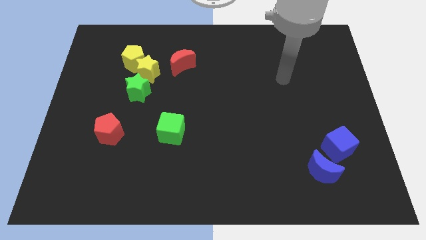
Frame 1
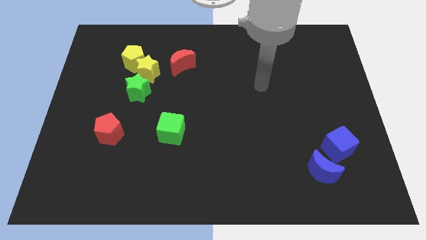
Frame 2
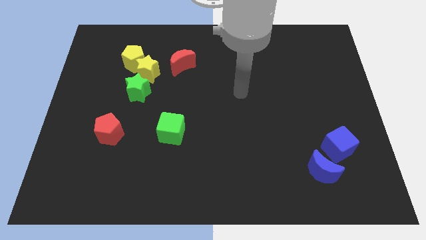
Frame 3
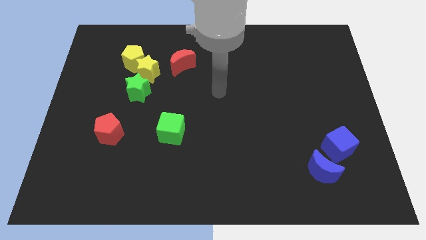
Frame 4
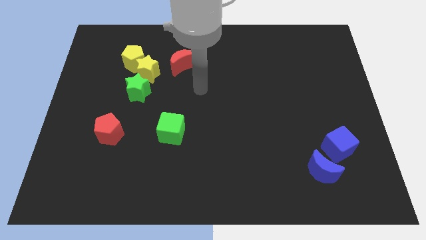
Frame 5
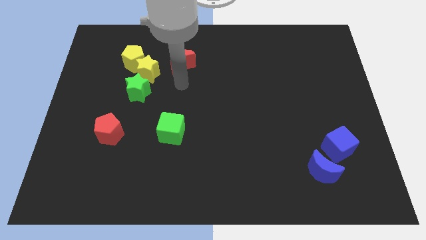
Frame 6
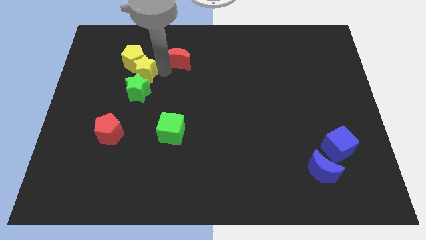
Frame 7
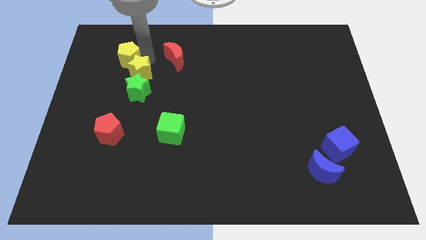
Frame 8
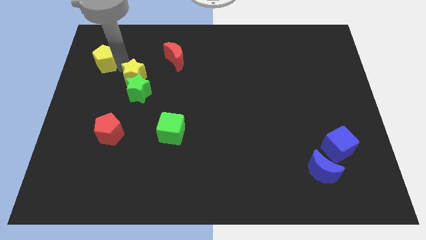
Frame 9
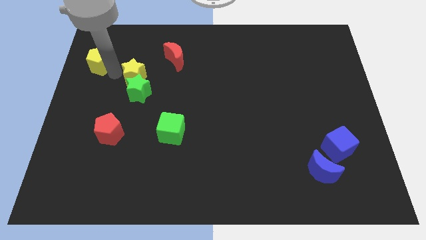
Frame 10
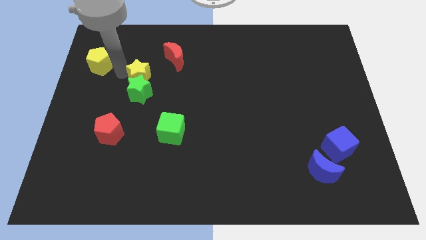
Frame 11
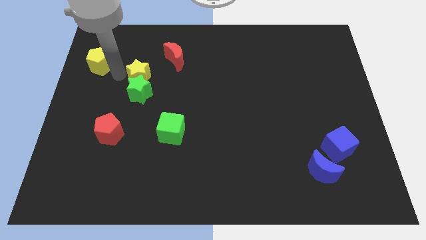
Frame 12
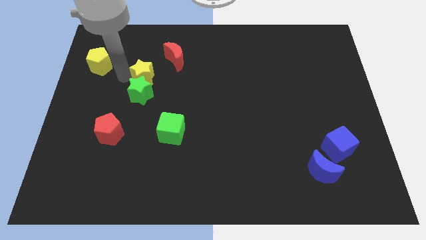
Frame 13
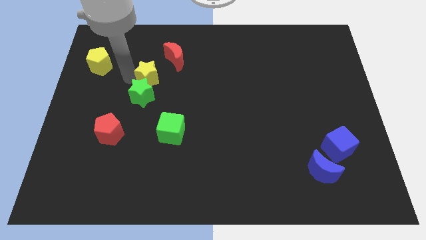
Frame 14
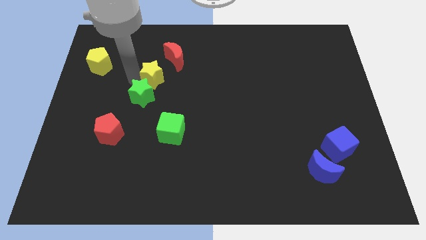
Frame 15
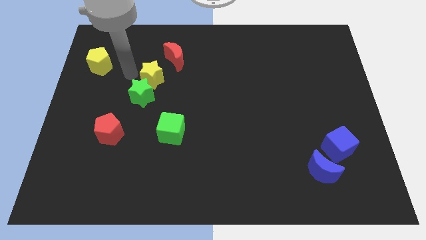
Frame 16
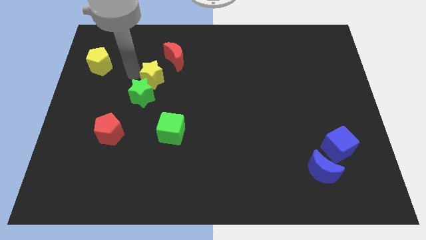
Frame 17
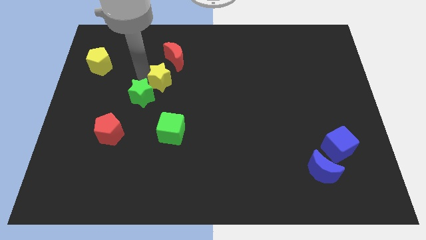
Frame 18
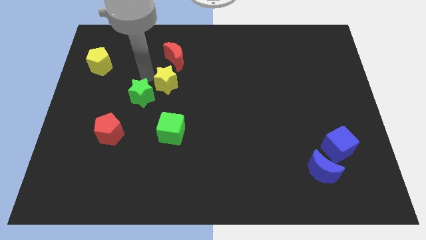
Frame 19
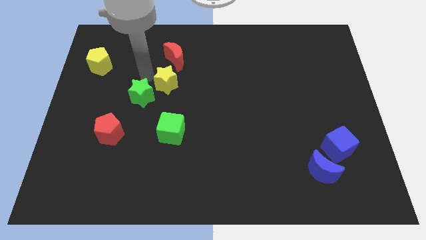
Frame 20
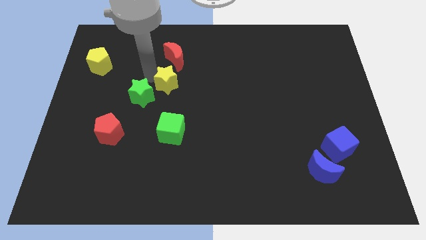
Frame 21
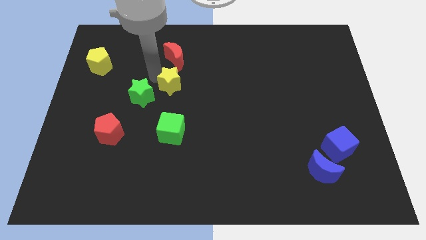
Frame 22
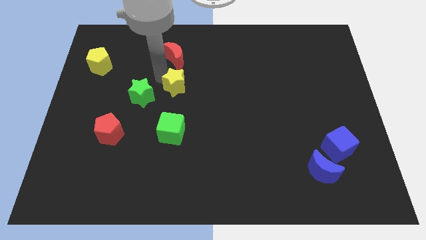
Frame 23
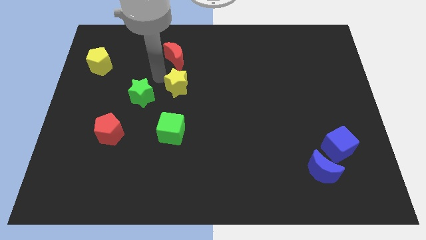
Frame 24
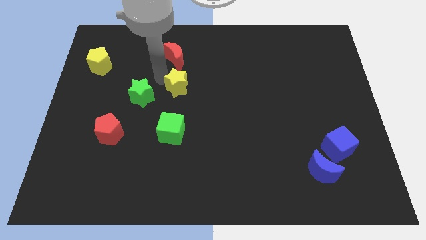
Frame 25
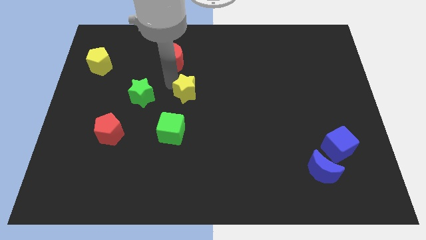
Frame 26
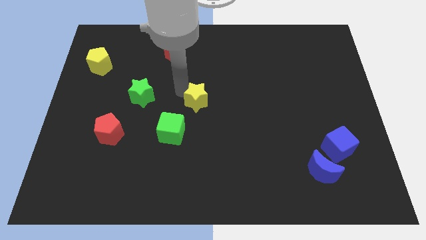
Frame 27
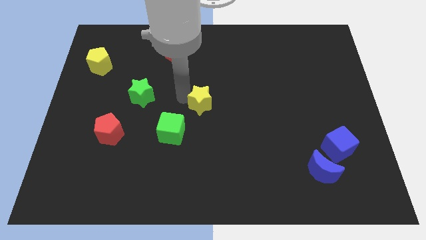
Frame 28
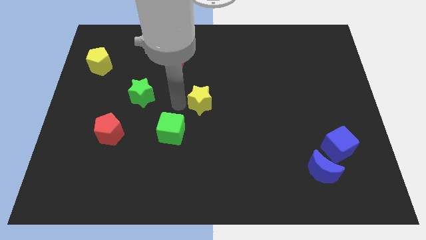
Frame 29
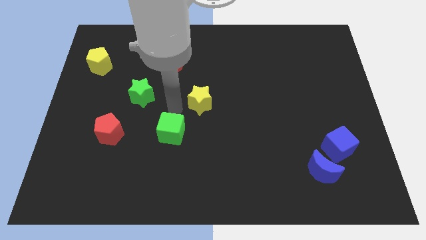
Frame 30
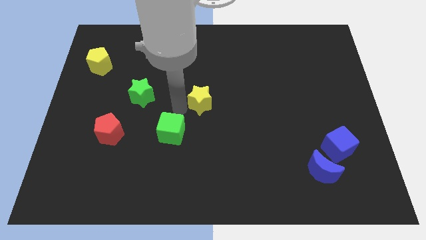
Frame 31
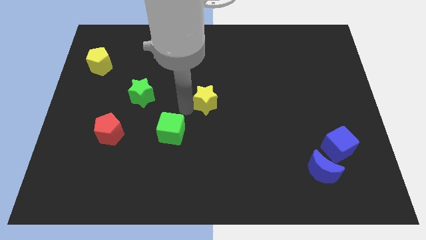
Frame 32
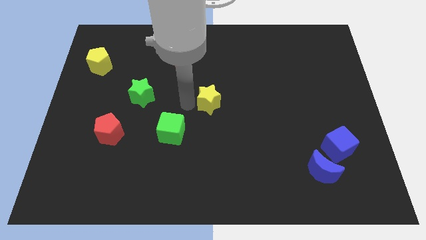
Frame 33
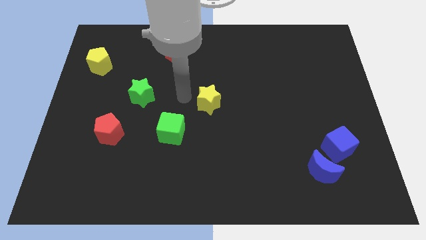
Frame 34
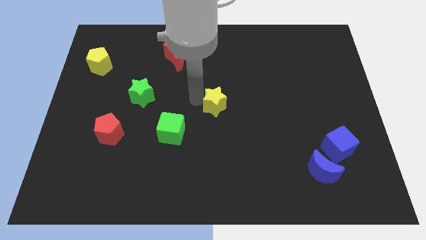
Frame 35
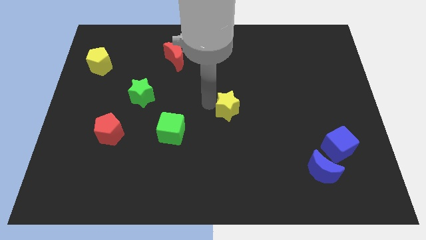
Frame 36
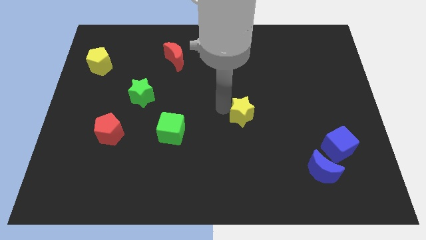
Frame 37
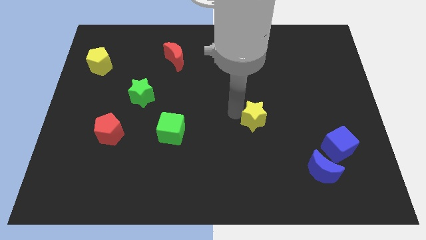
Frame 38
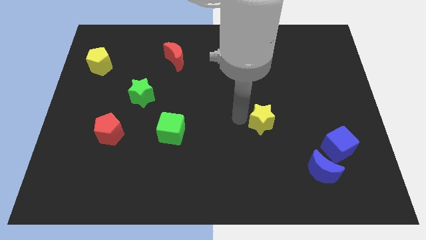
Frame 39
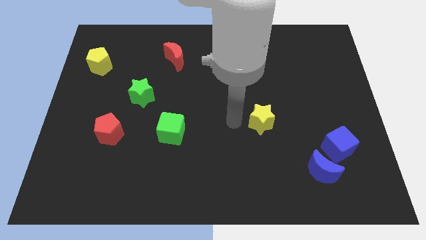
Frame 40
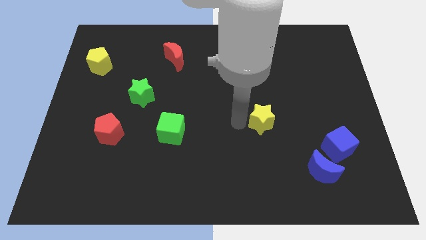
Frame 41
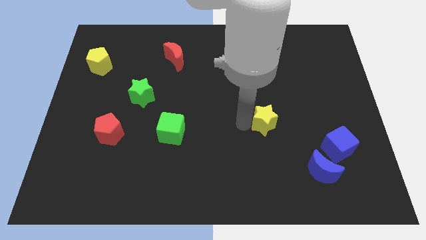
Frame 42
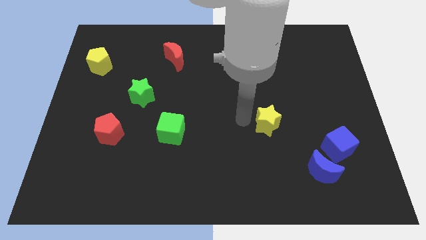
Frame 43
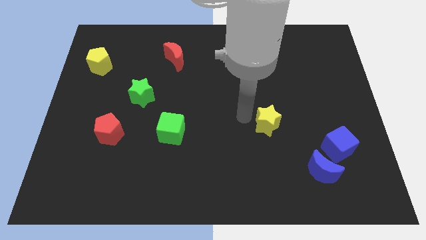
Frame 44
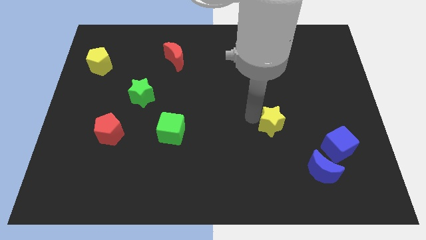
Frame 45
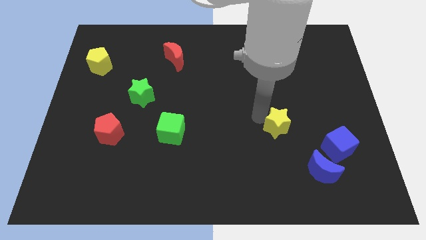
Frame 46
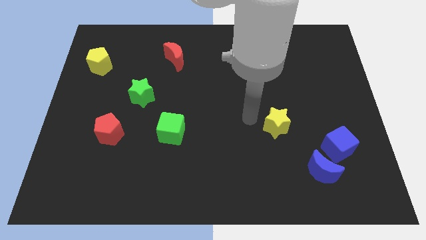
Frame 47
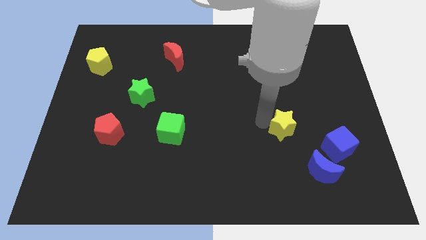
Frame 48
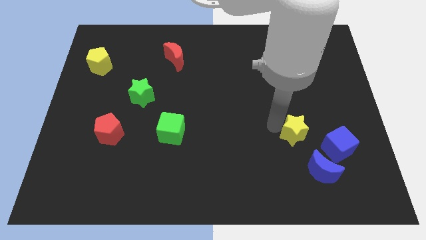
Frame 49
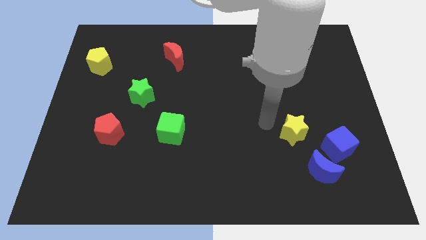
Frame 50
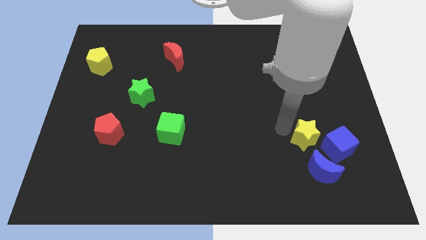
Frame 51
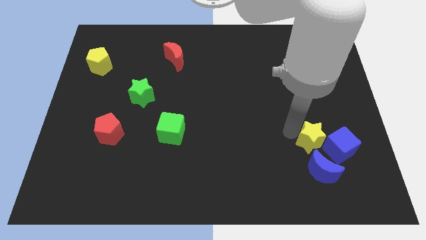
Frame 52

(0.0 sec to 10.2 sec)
slide the yellow star to the blue cube

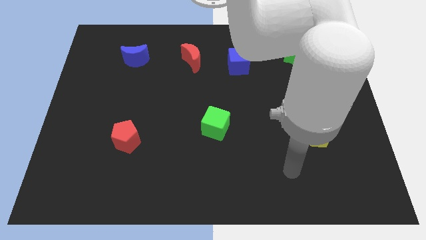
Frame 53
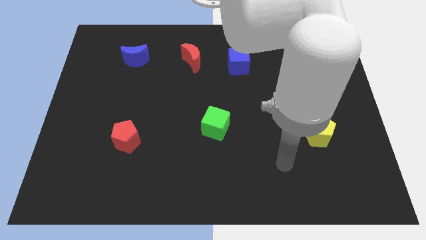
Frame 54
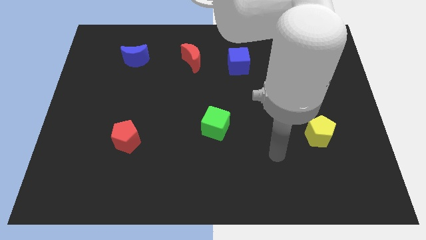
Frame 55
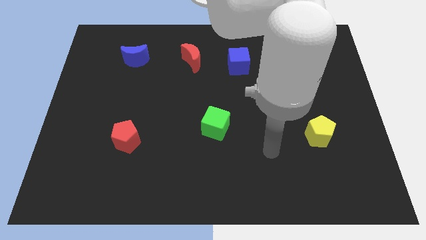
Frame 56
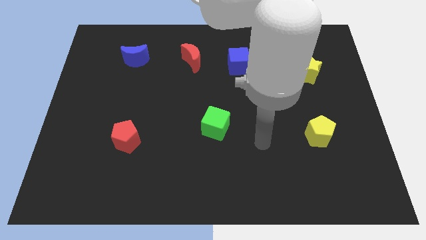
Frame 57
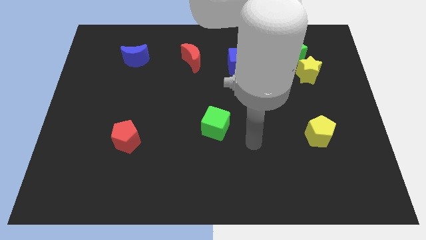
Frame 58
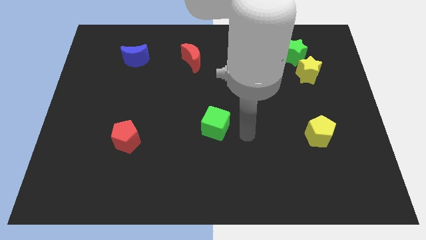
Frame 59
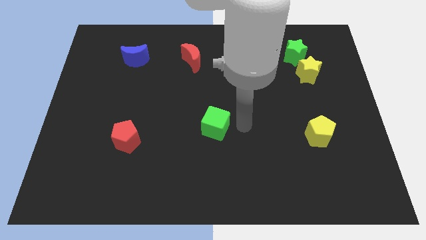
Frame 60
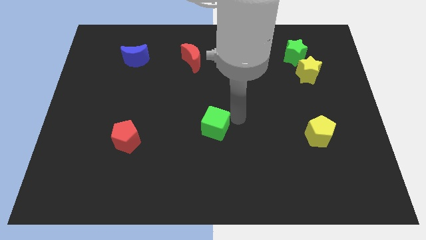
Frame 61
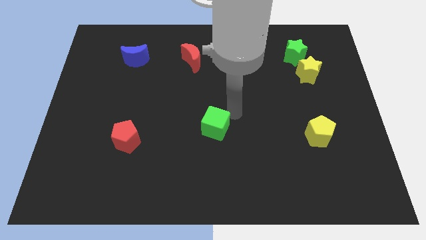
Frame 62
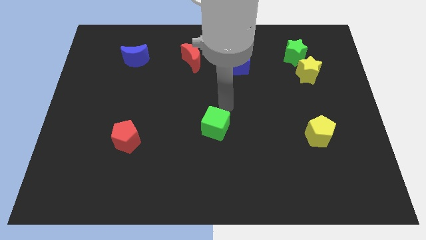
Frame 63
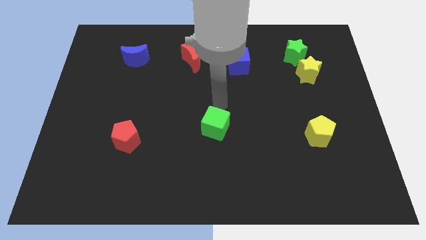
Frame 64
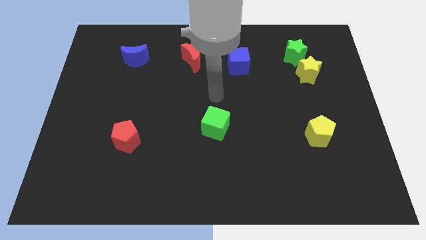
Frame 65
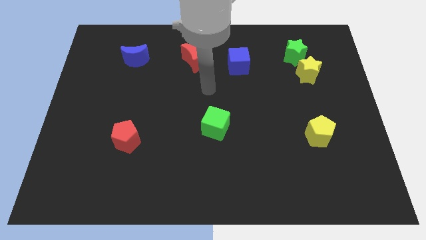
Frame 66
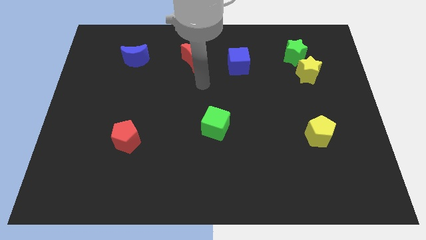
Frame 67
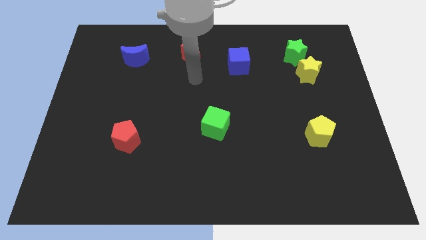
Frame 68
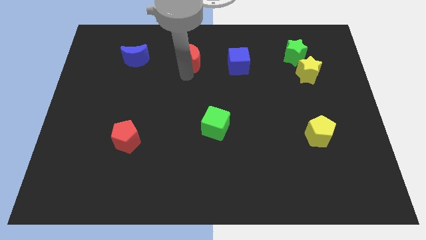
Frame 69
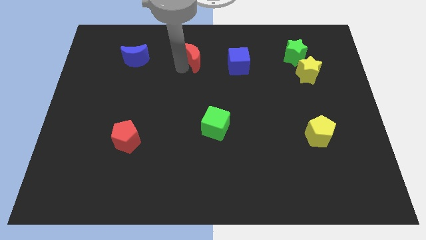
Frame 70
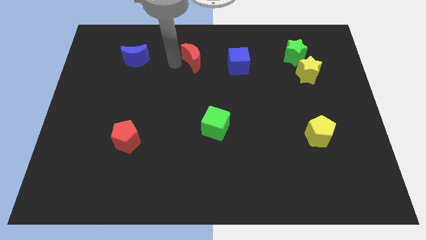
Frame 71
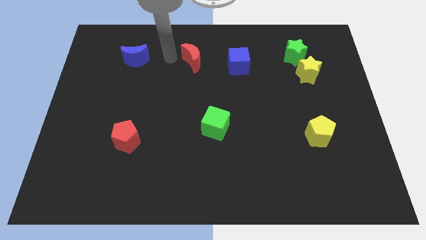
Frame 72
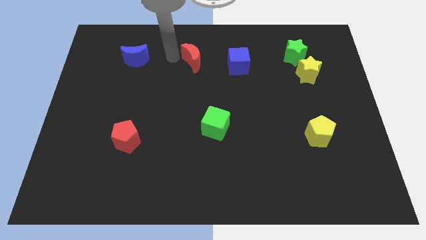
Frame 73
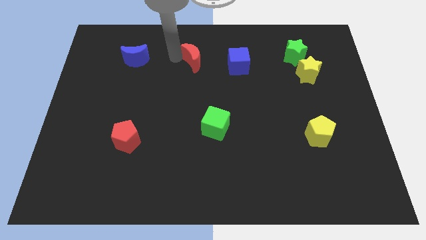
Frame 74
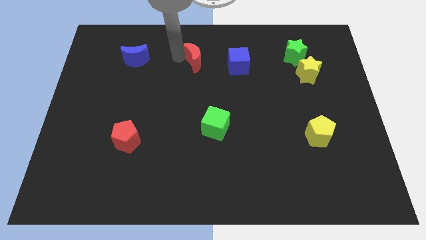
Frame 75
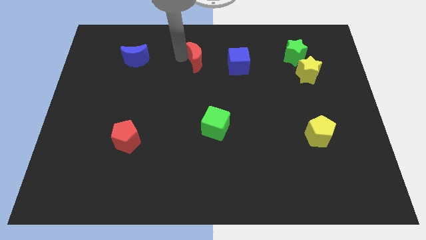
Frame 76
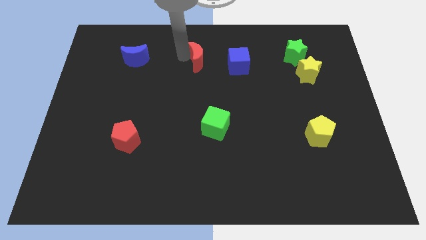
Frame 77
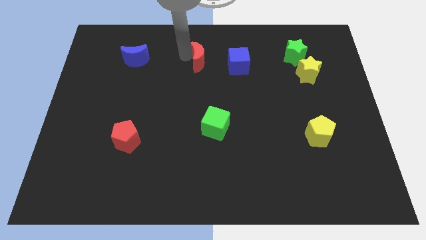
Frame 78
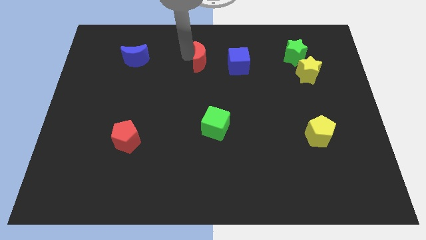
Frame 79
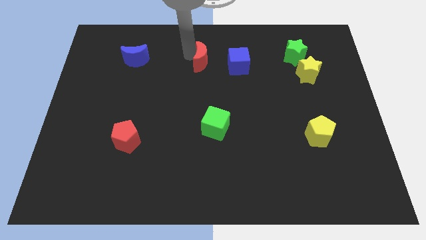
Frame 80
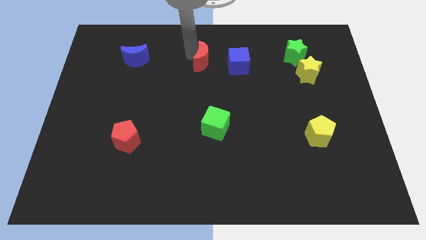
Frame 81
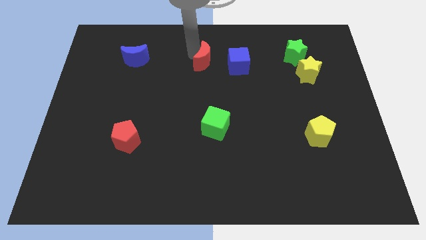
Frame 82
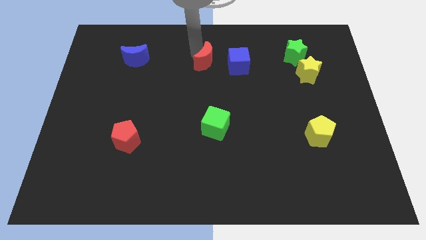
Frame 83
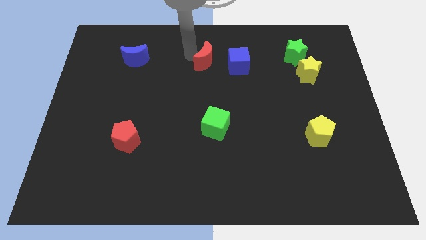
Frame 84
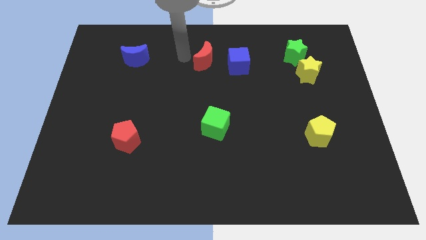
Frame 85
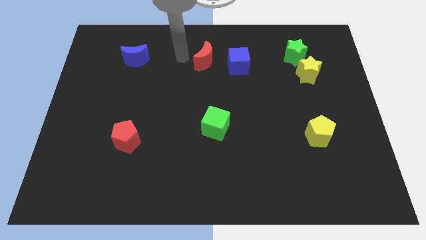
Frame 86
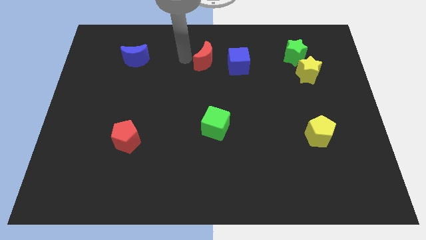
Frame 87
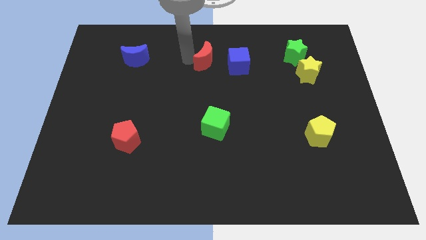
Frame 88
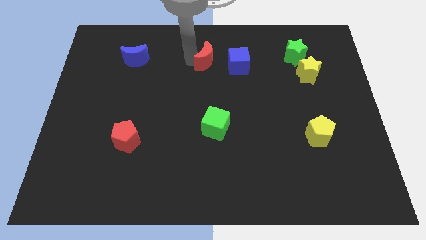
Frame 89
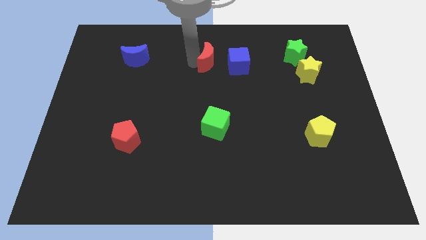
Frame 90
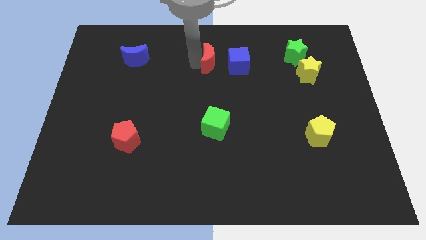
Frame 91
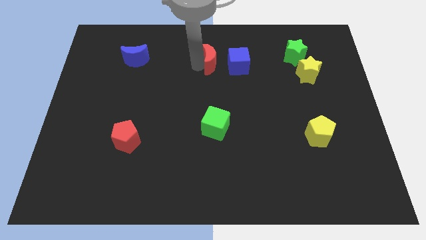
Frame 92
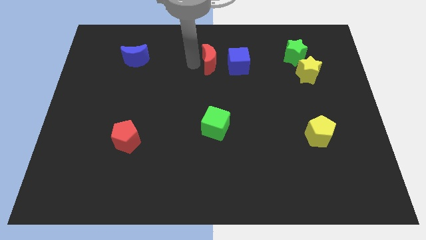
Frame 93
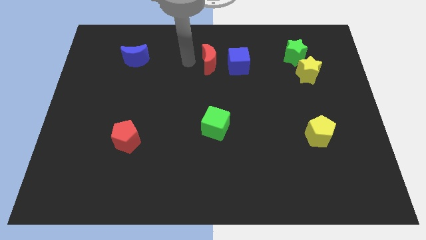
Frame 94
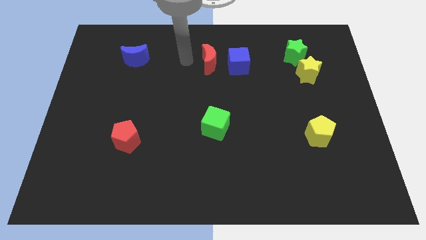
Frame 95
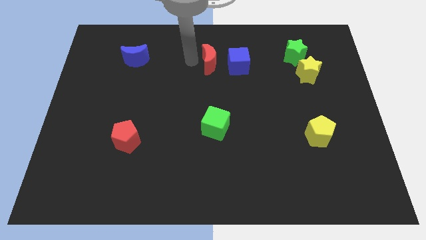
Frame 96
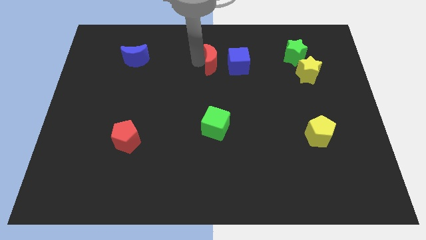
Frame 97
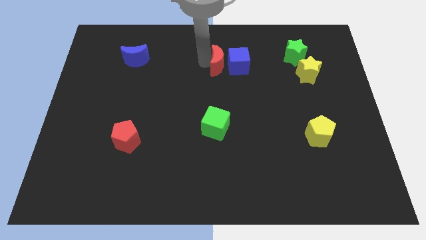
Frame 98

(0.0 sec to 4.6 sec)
move the red moon close to the blue cube
